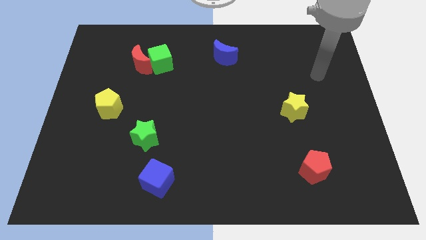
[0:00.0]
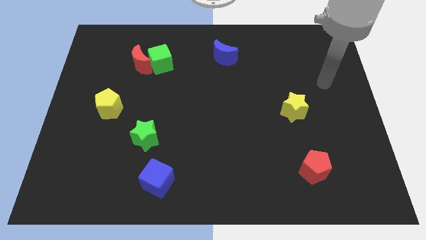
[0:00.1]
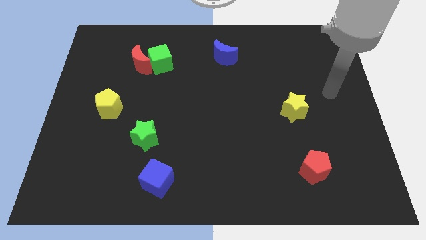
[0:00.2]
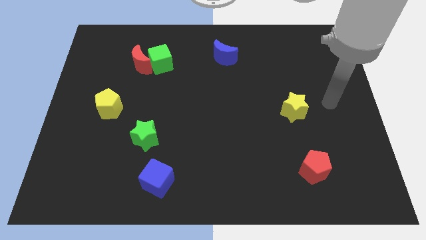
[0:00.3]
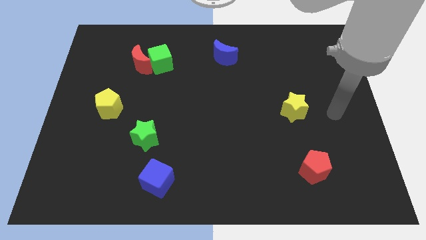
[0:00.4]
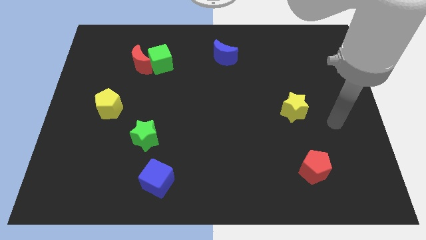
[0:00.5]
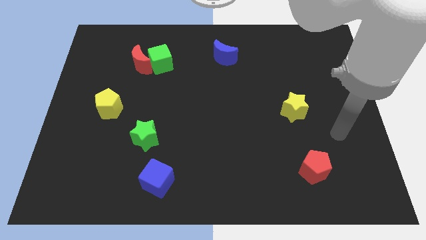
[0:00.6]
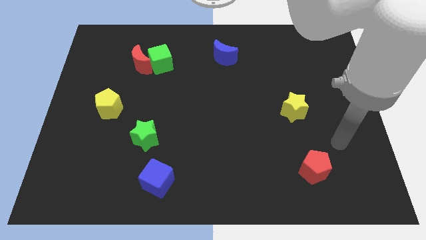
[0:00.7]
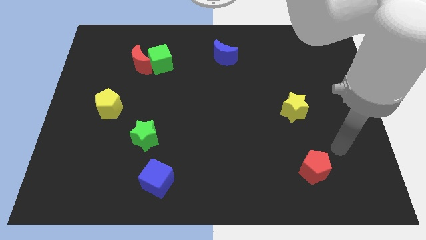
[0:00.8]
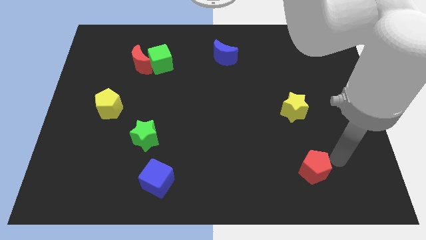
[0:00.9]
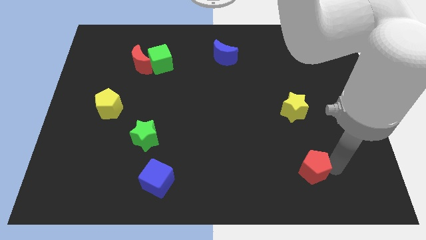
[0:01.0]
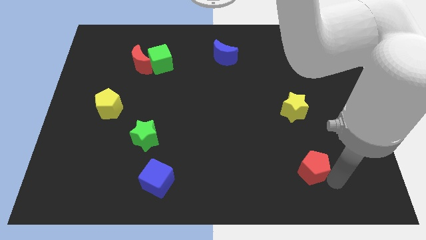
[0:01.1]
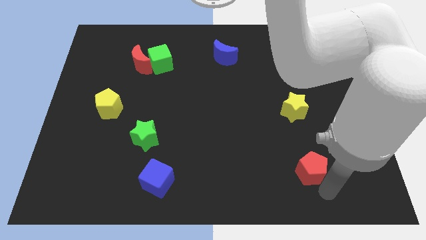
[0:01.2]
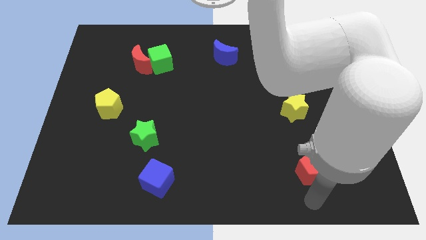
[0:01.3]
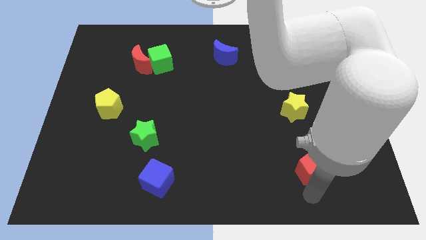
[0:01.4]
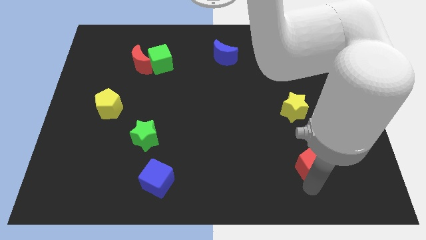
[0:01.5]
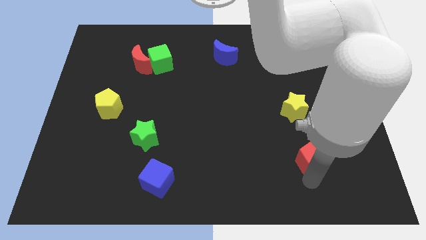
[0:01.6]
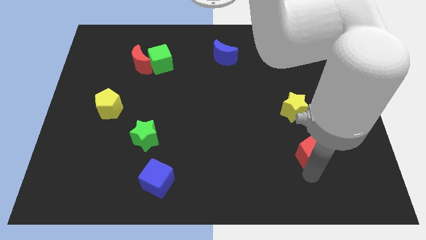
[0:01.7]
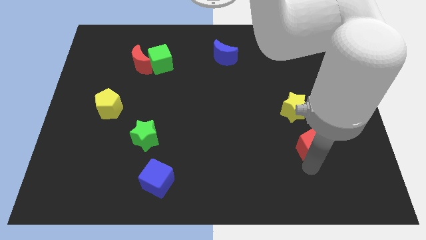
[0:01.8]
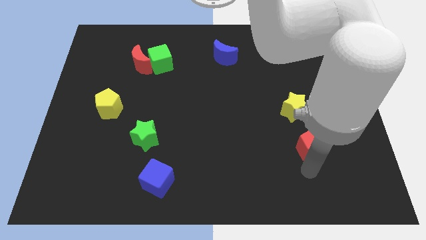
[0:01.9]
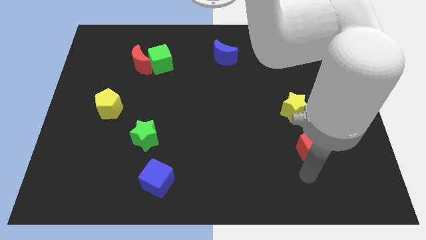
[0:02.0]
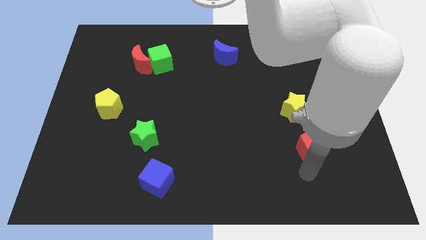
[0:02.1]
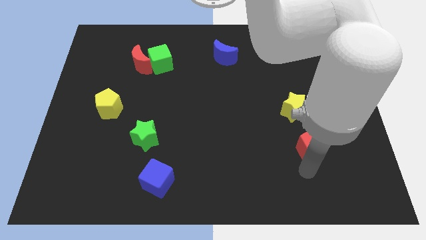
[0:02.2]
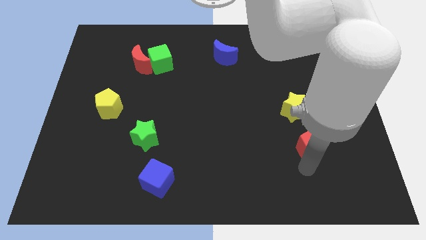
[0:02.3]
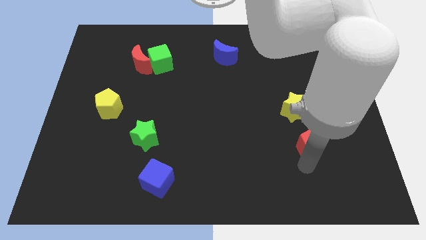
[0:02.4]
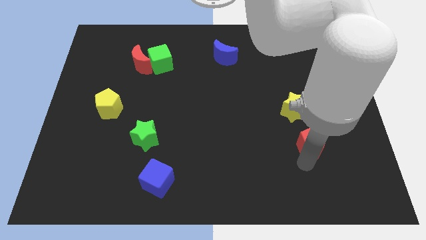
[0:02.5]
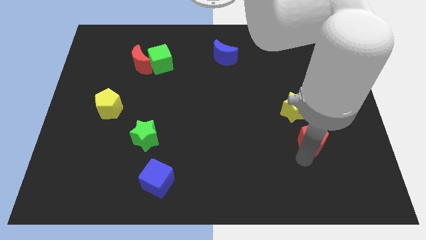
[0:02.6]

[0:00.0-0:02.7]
move the red pentagon up a bit

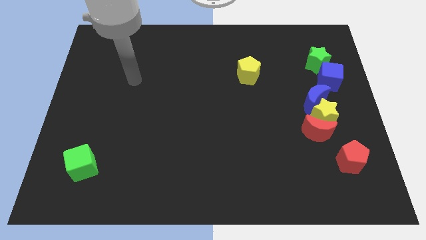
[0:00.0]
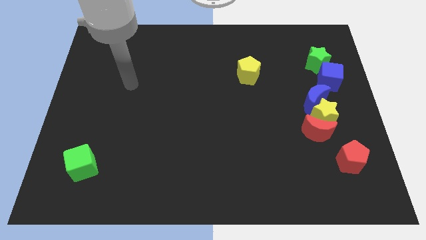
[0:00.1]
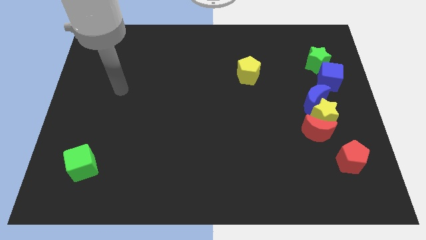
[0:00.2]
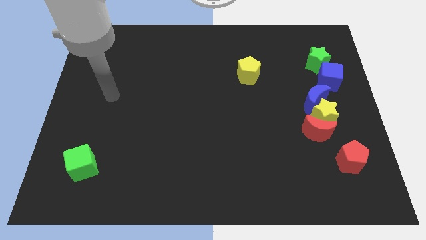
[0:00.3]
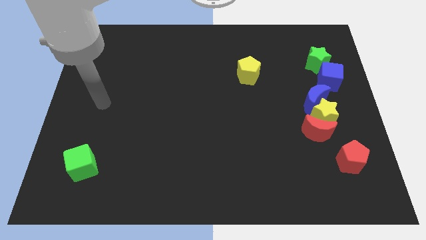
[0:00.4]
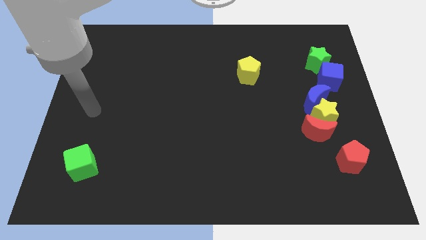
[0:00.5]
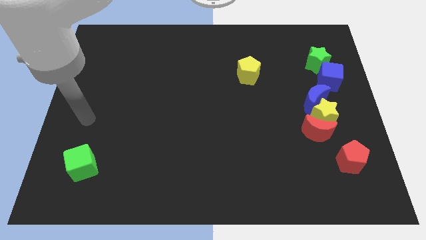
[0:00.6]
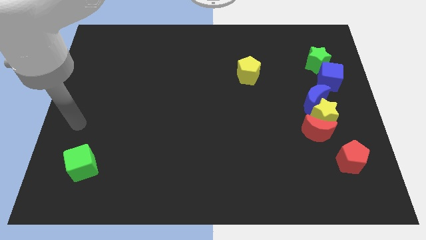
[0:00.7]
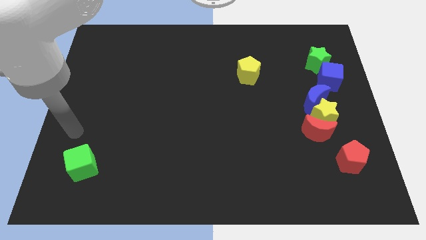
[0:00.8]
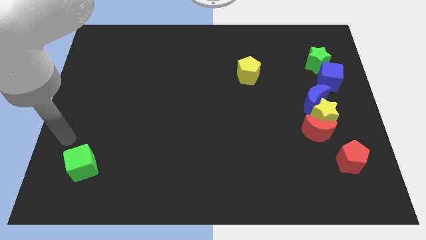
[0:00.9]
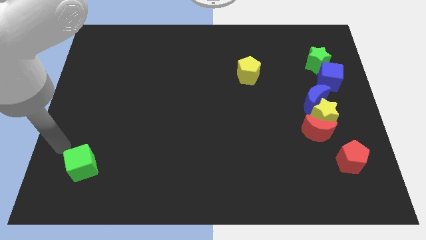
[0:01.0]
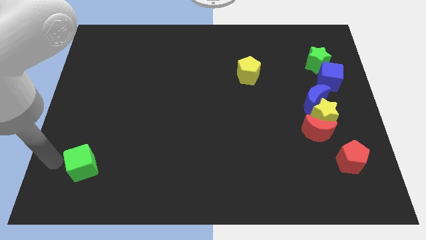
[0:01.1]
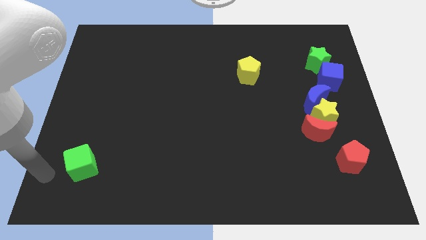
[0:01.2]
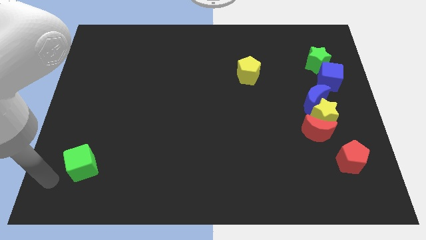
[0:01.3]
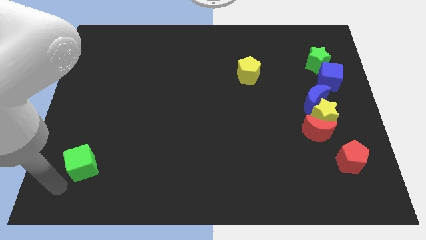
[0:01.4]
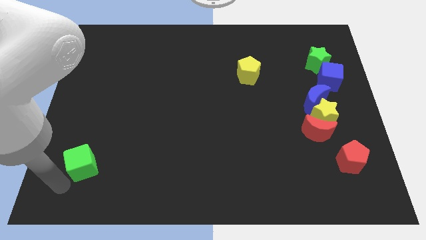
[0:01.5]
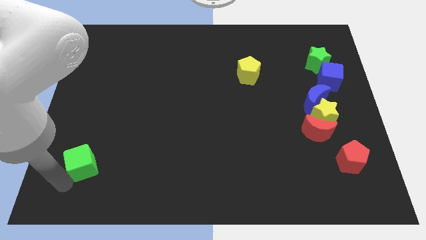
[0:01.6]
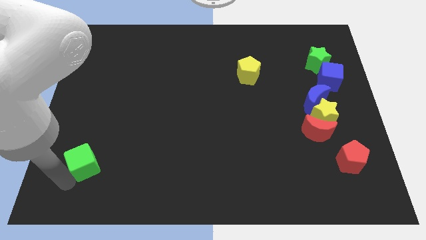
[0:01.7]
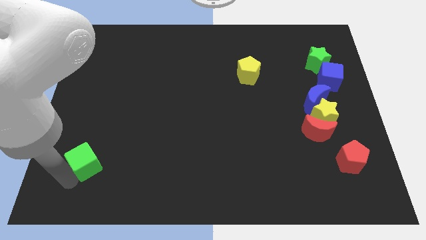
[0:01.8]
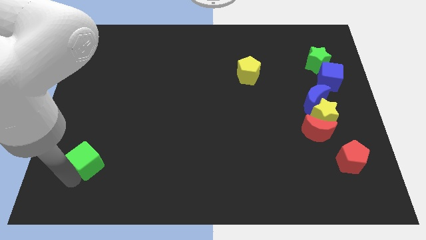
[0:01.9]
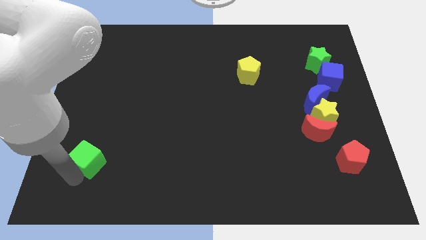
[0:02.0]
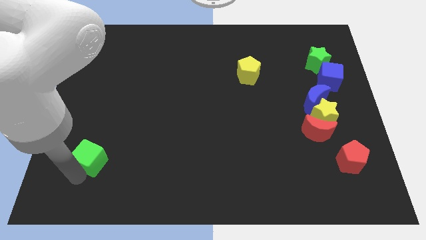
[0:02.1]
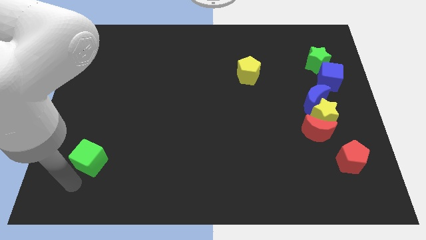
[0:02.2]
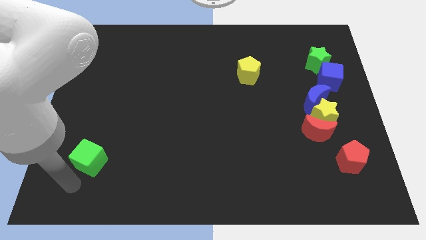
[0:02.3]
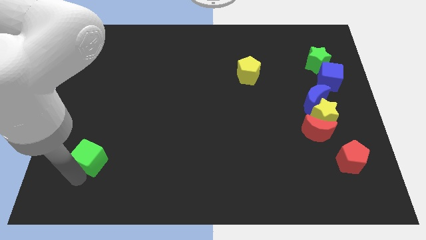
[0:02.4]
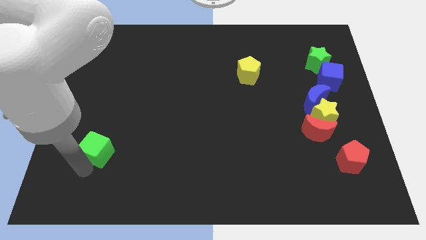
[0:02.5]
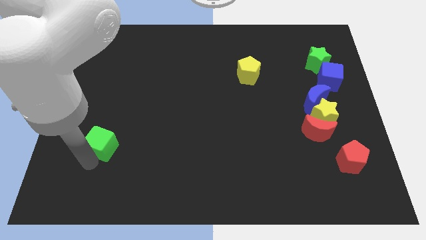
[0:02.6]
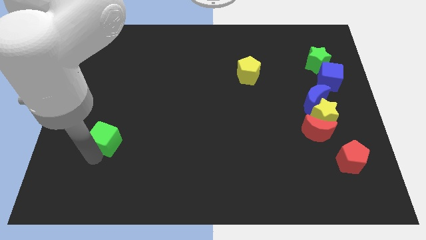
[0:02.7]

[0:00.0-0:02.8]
slightly move the green cube upwards and then to the right

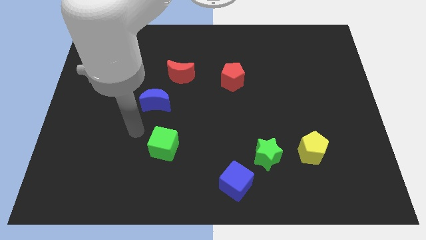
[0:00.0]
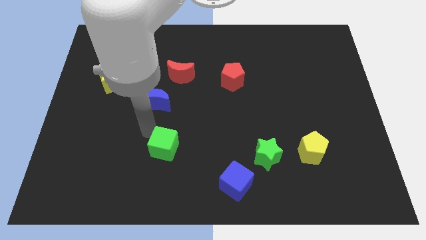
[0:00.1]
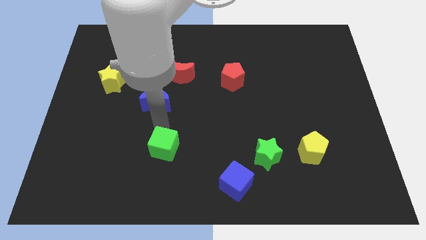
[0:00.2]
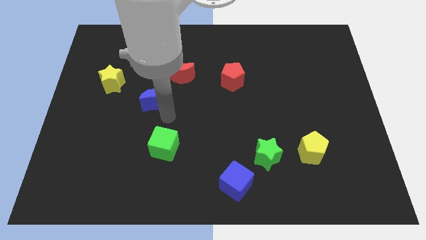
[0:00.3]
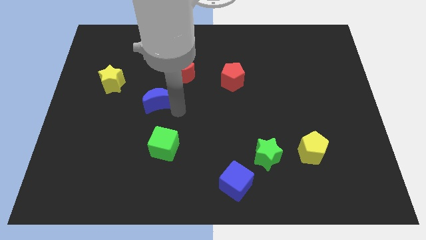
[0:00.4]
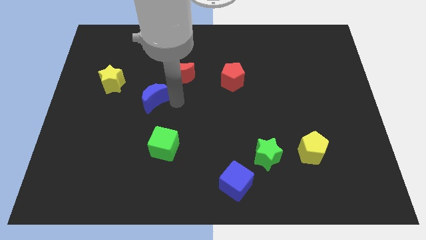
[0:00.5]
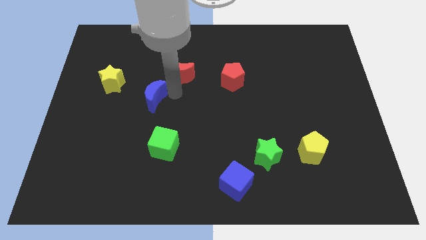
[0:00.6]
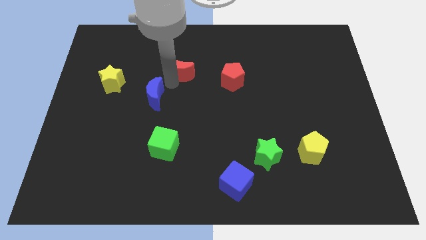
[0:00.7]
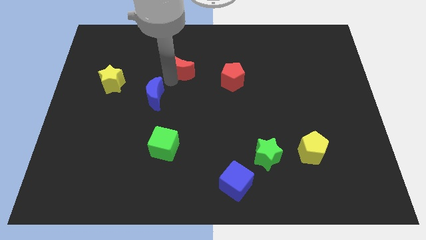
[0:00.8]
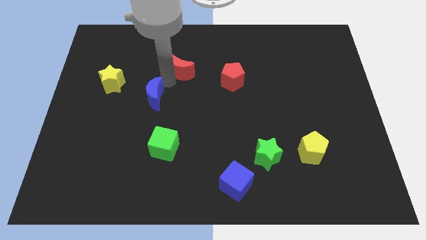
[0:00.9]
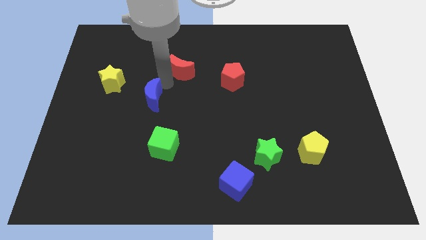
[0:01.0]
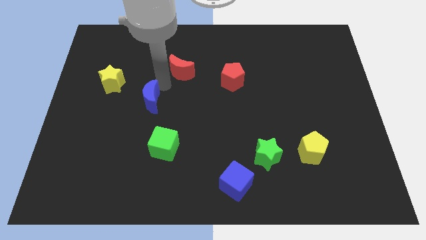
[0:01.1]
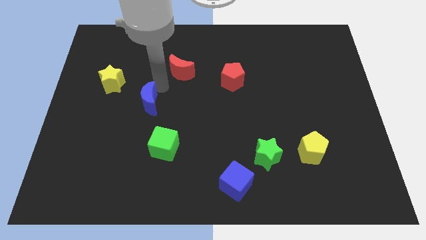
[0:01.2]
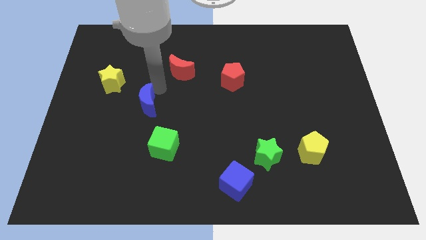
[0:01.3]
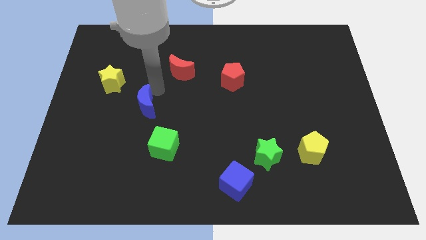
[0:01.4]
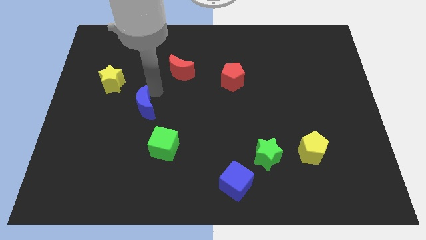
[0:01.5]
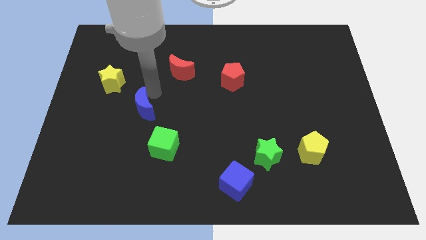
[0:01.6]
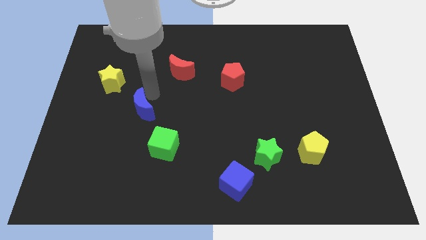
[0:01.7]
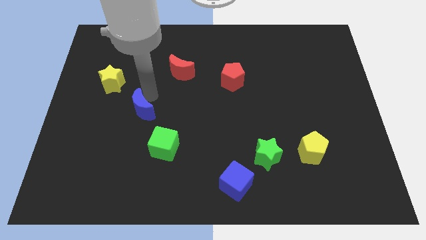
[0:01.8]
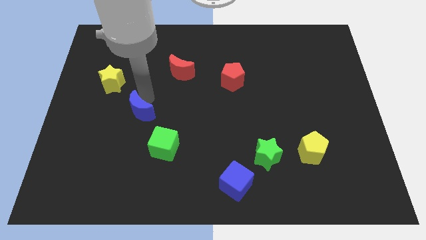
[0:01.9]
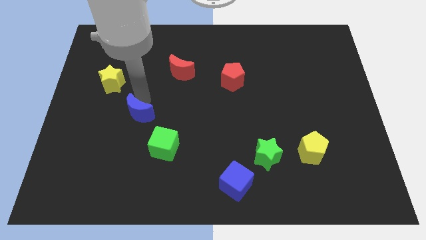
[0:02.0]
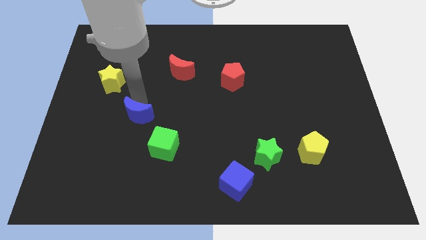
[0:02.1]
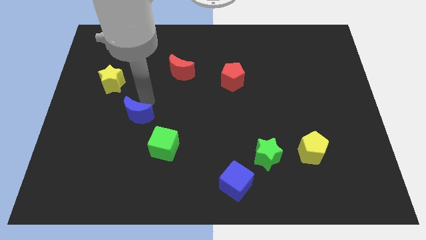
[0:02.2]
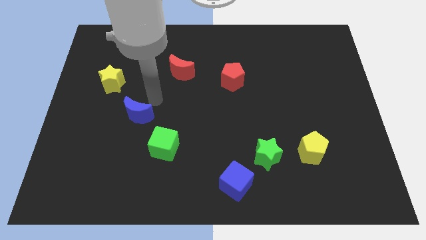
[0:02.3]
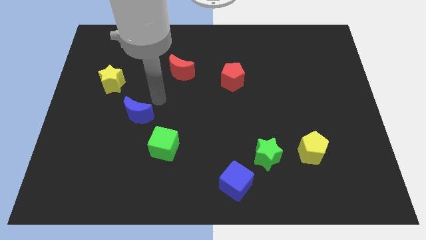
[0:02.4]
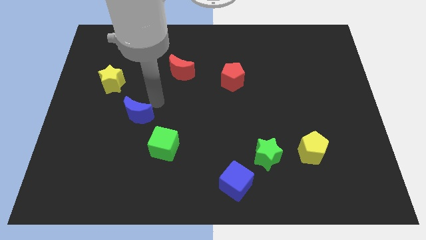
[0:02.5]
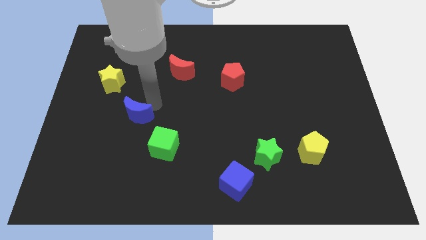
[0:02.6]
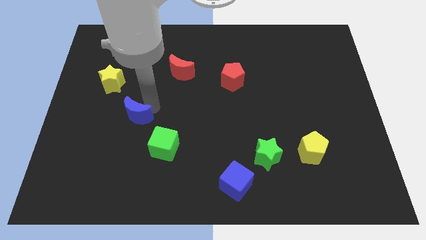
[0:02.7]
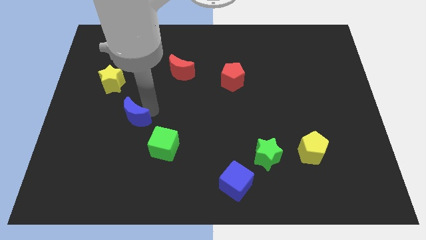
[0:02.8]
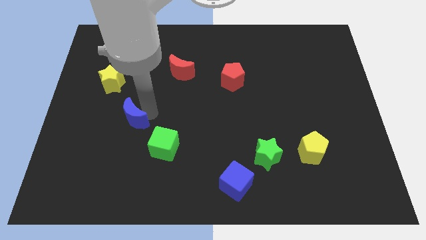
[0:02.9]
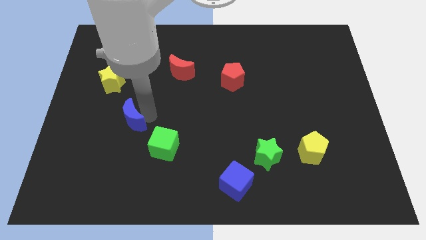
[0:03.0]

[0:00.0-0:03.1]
push the blue moon diagonally downwards and to the left a little
